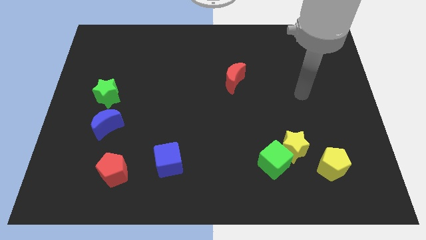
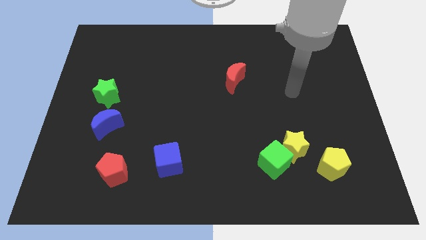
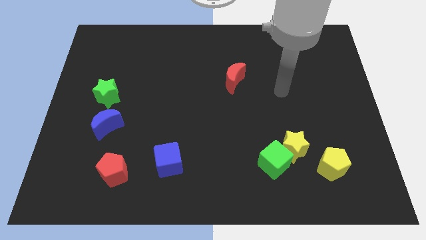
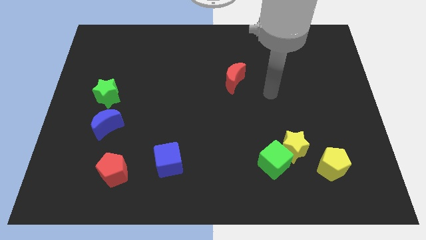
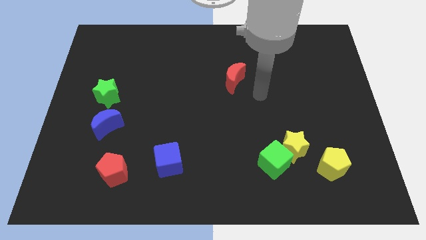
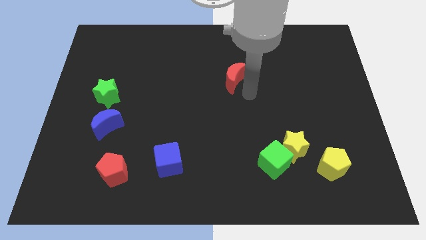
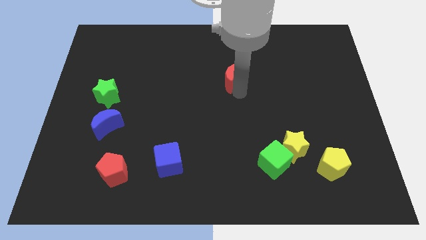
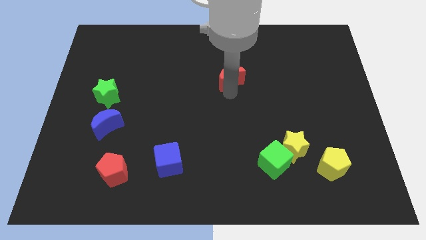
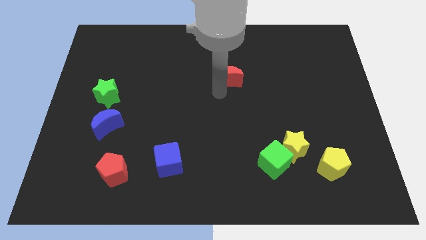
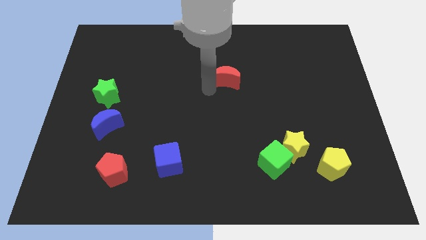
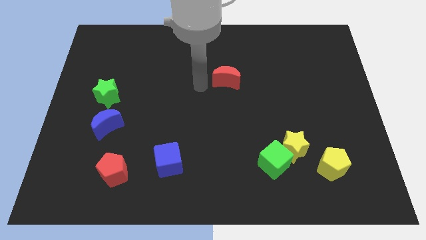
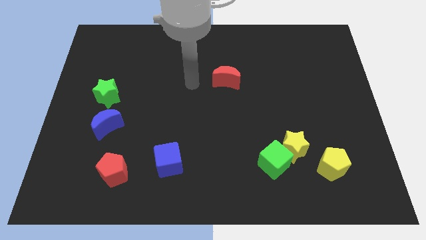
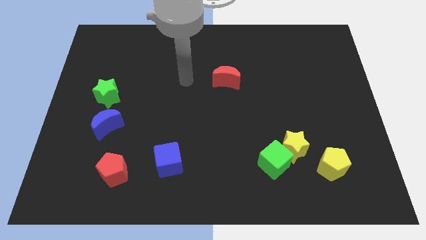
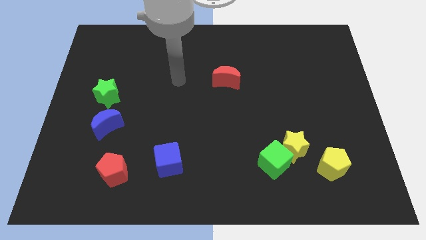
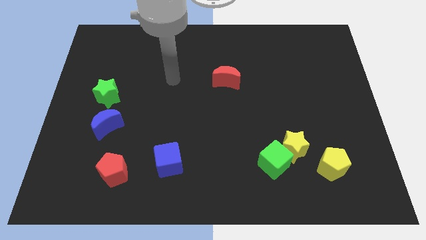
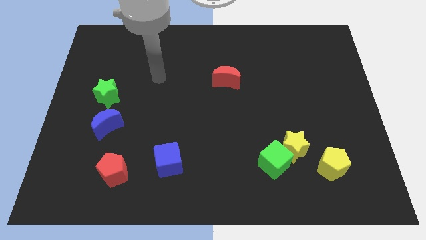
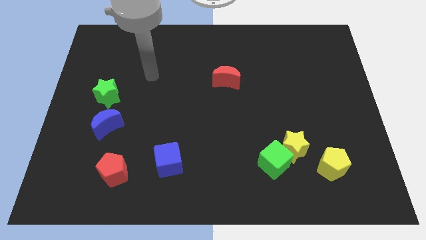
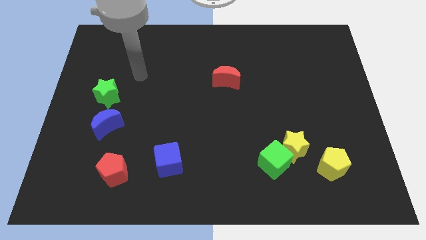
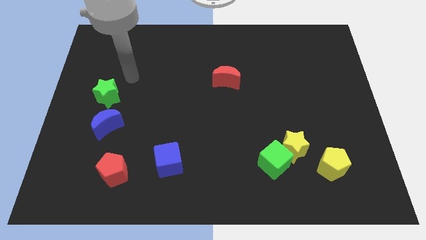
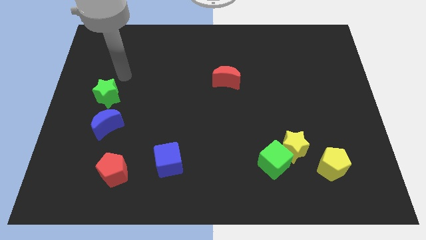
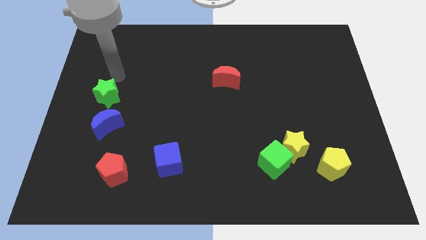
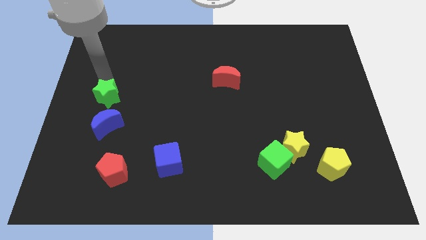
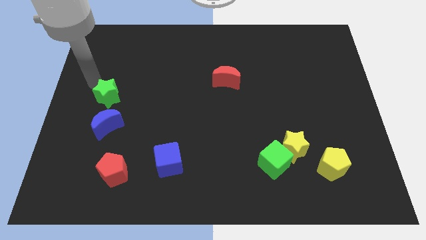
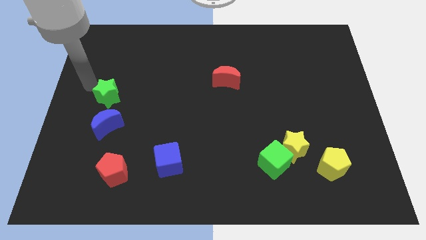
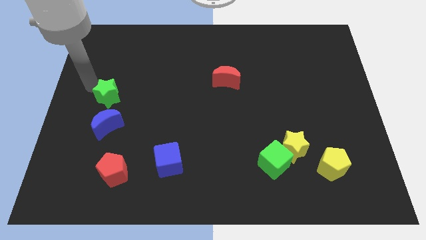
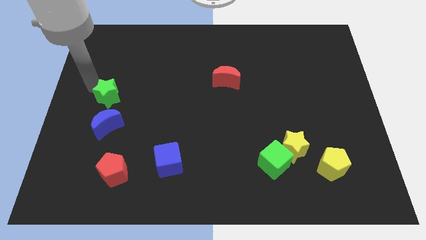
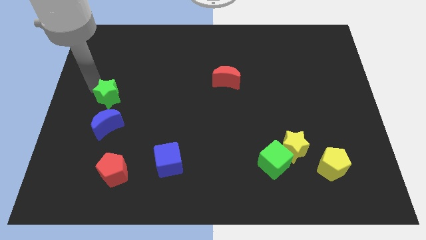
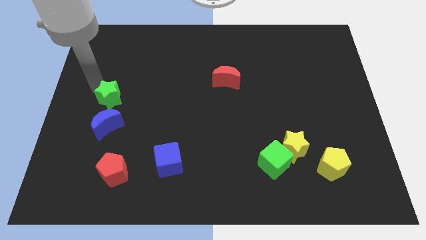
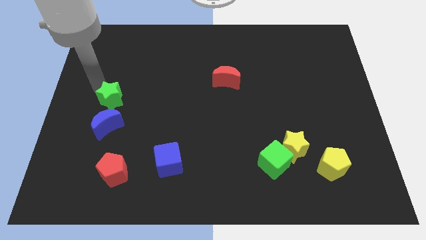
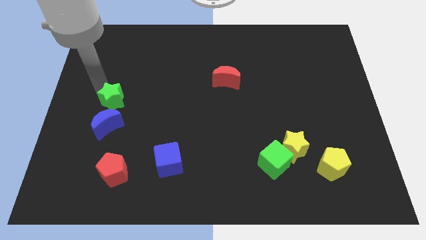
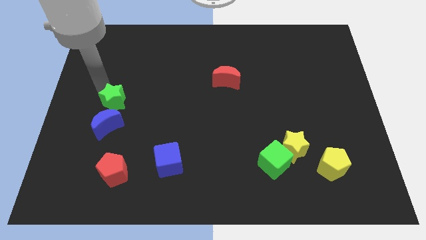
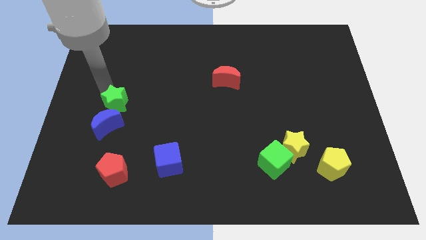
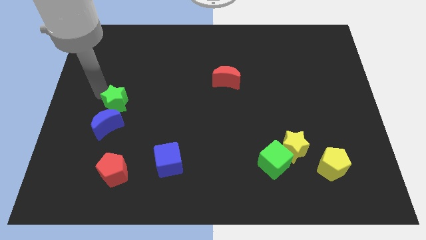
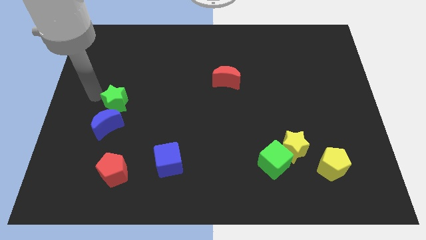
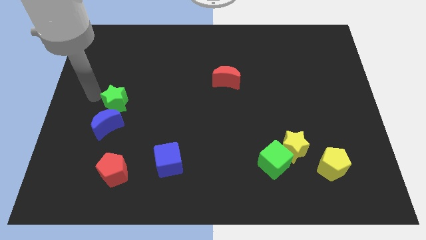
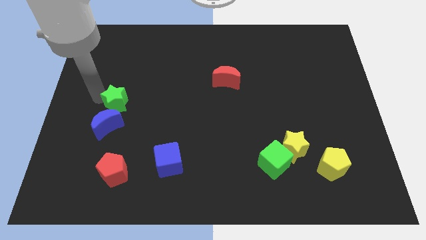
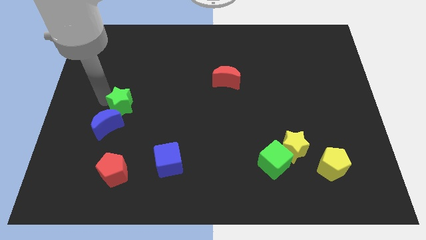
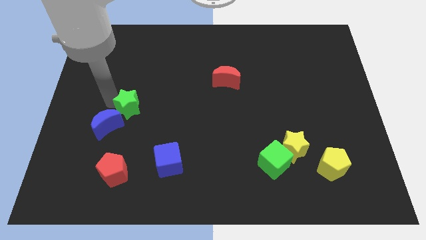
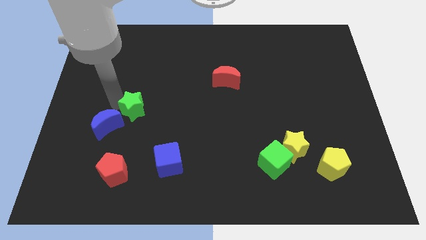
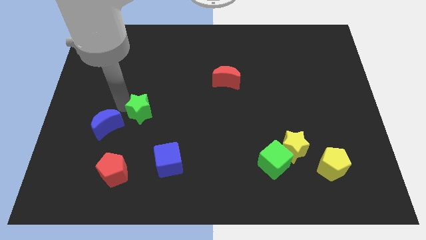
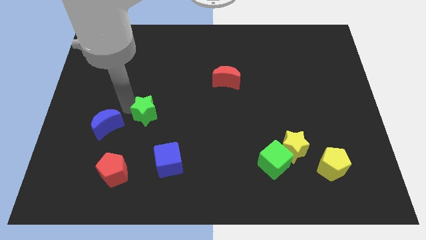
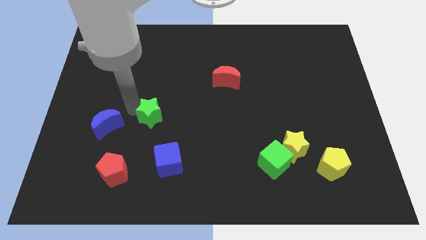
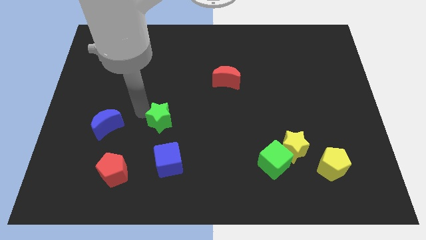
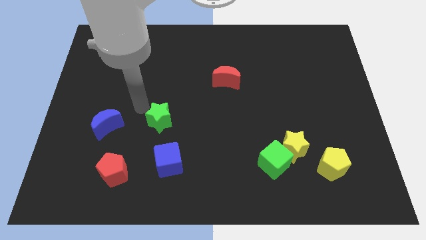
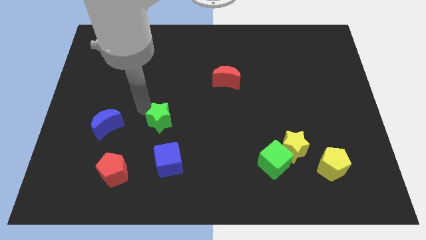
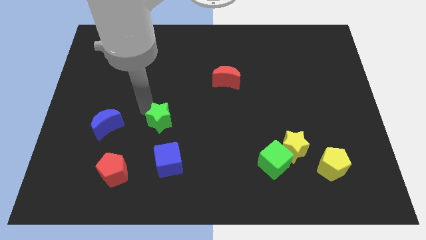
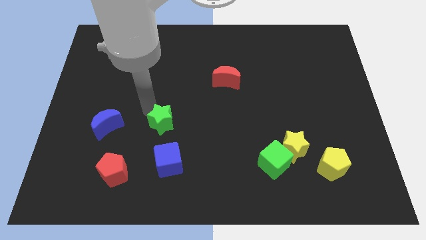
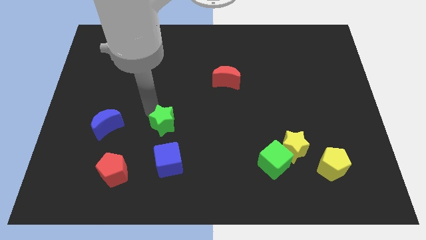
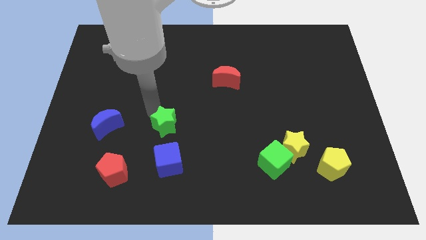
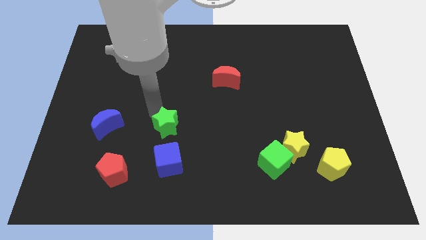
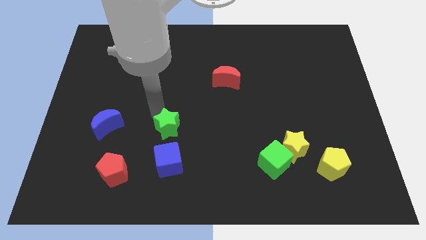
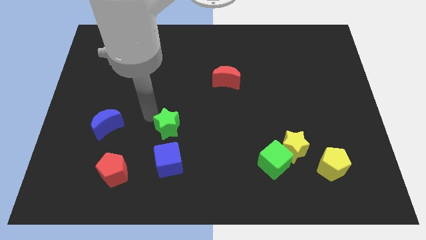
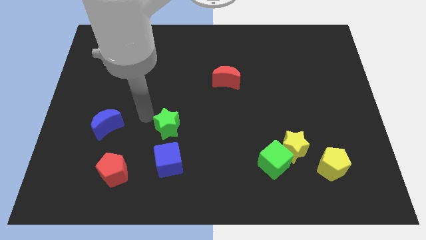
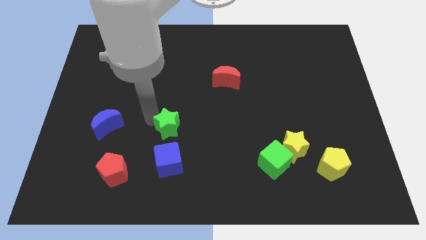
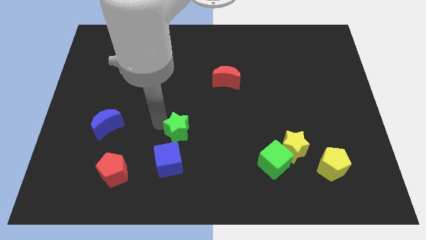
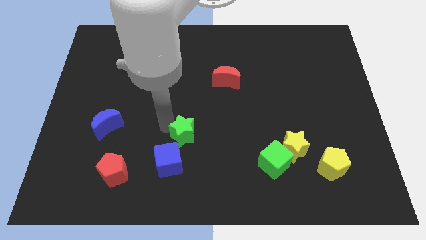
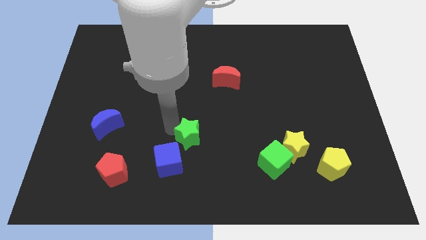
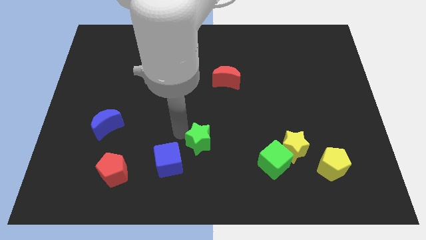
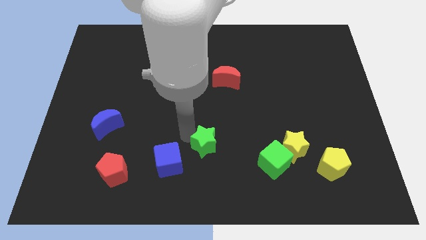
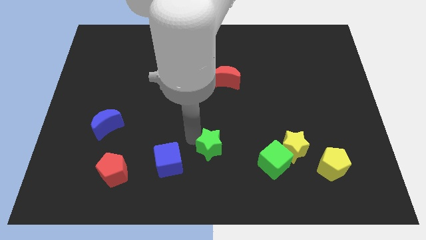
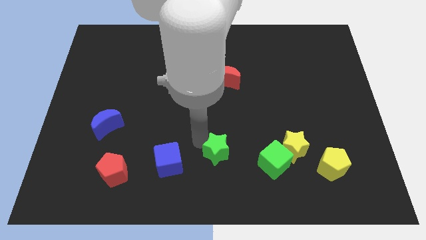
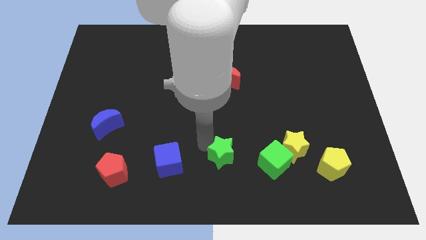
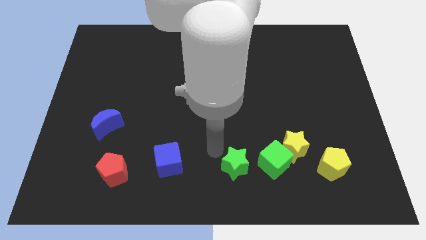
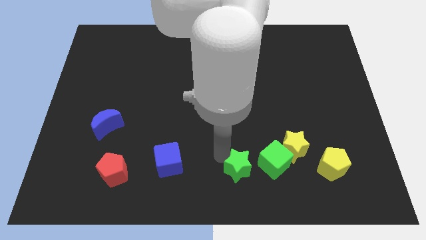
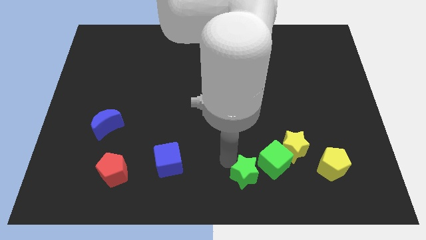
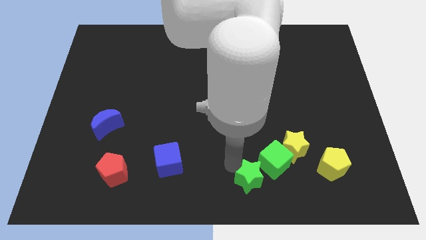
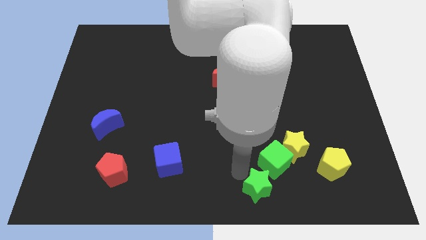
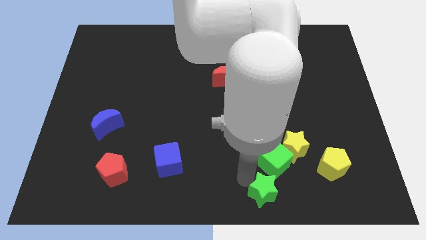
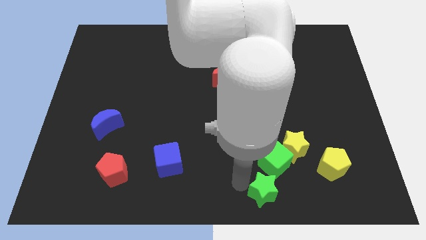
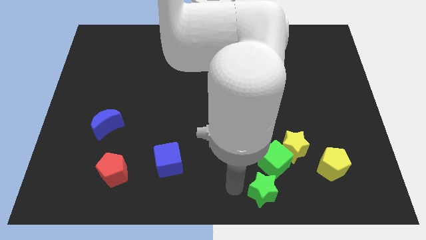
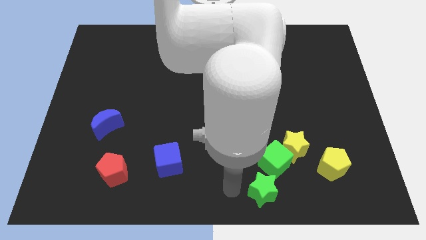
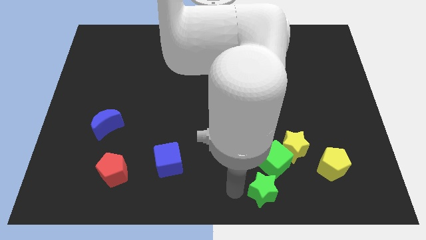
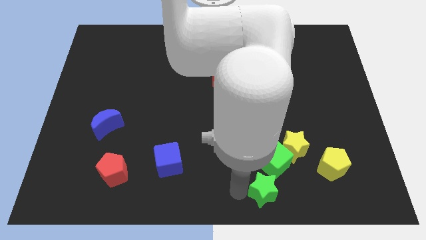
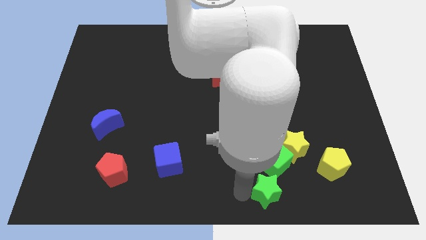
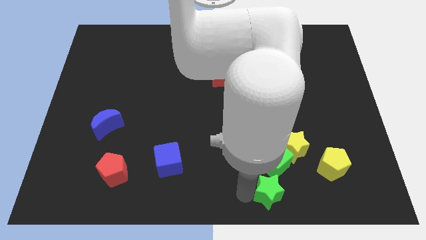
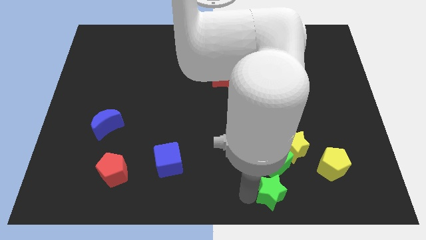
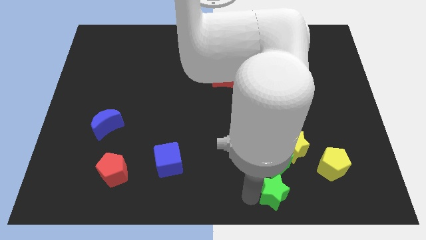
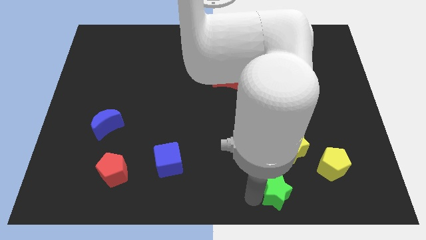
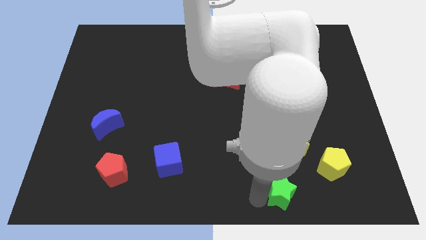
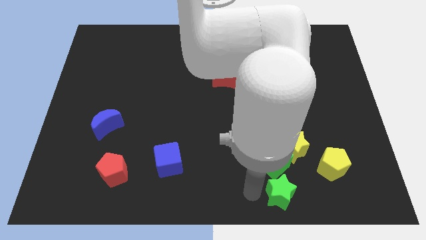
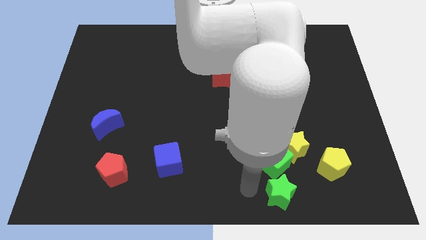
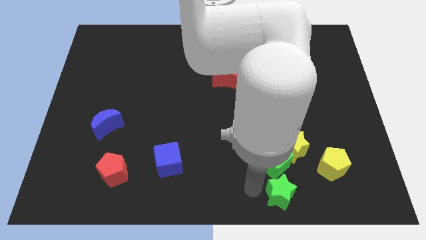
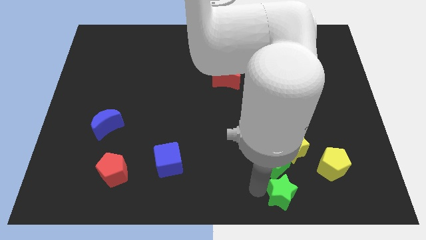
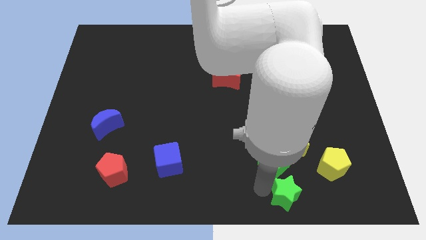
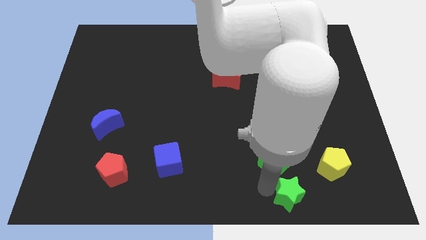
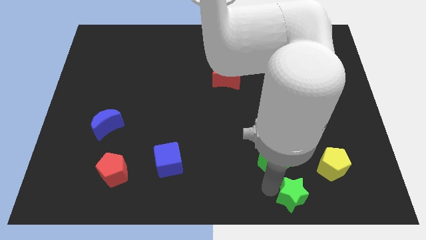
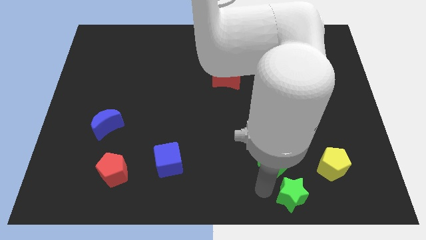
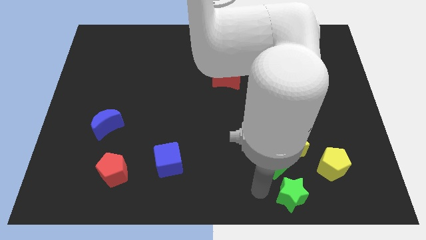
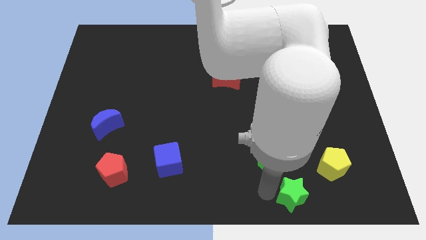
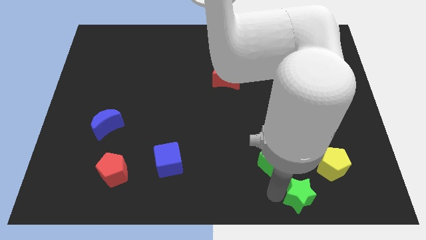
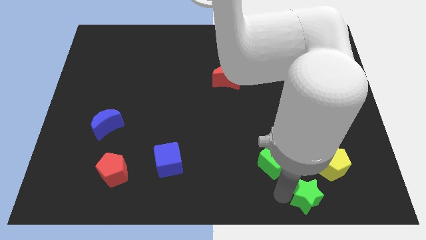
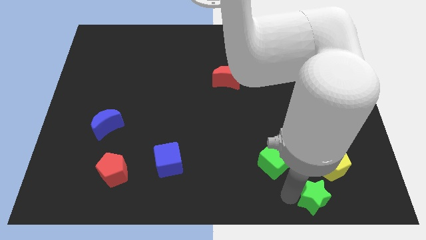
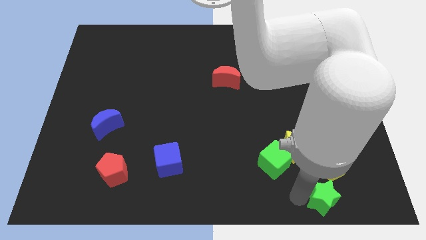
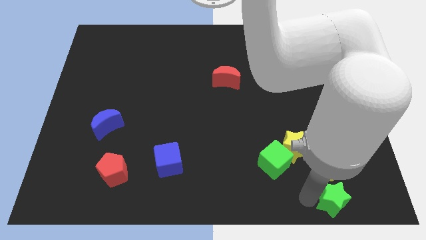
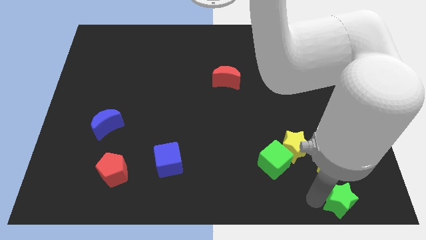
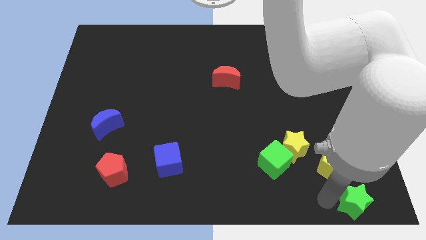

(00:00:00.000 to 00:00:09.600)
move the green star to the bottom right of the board
